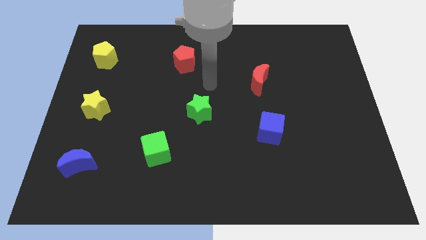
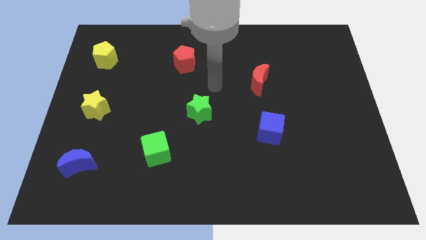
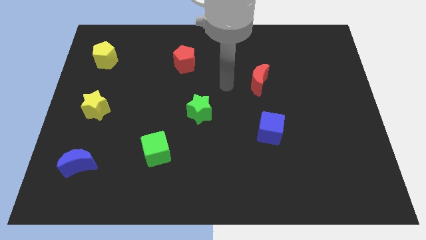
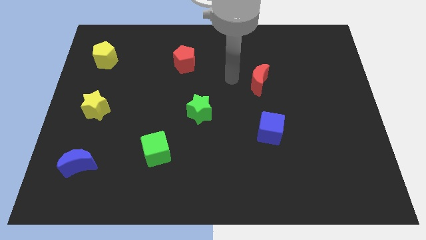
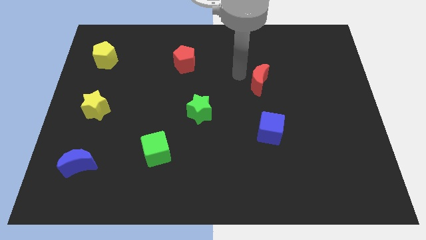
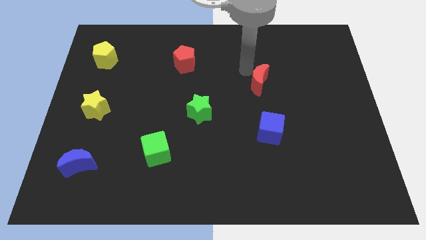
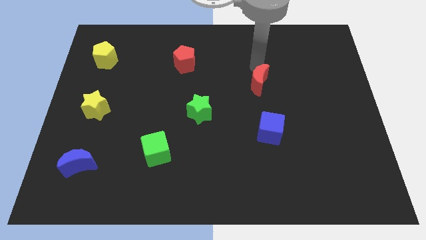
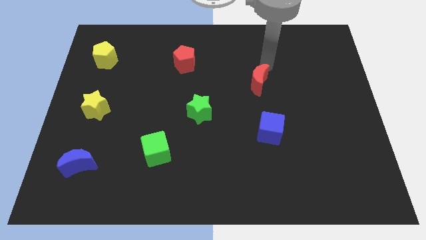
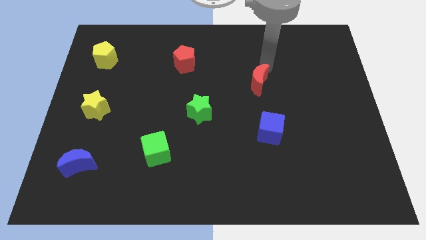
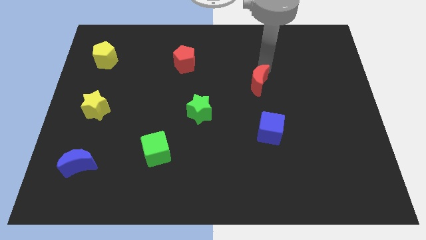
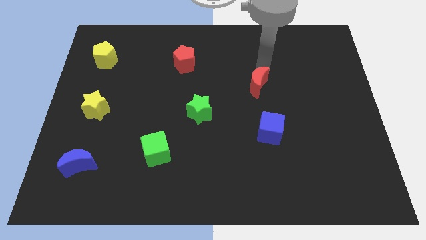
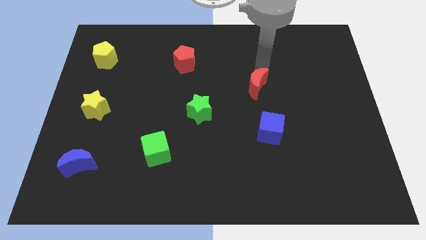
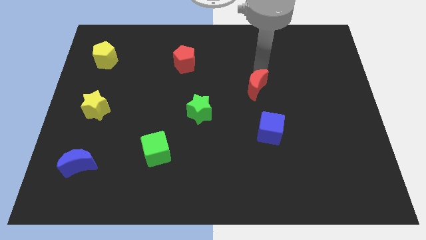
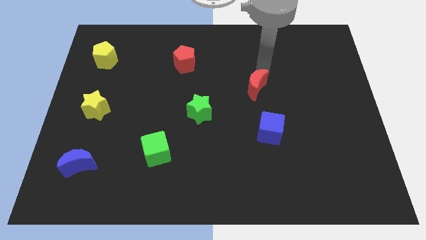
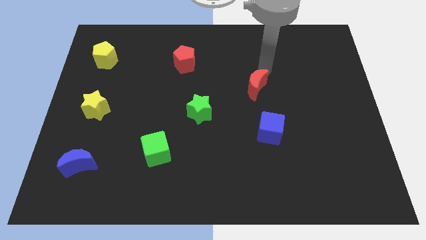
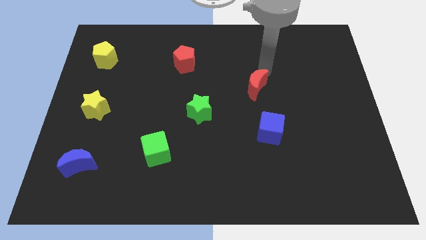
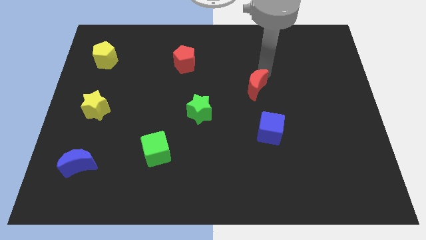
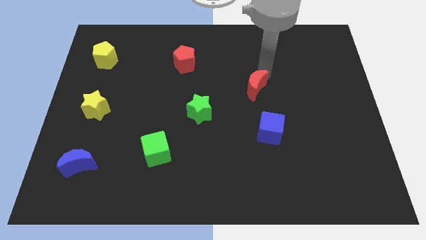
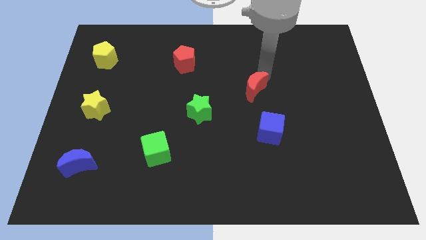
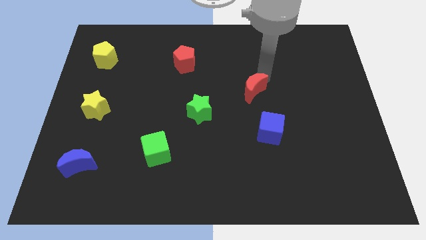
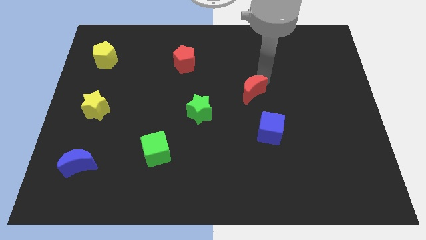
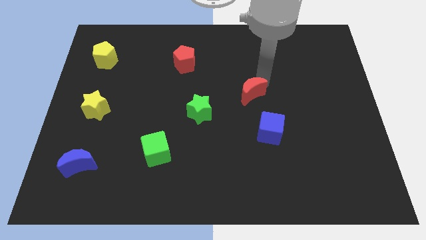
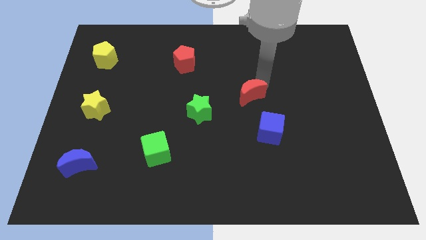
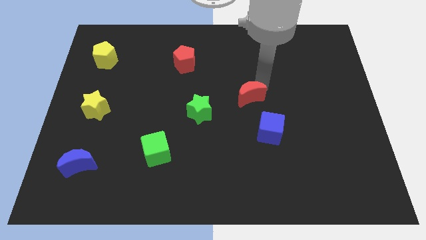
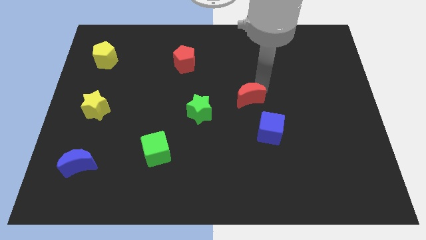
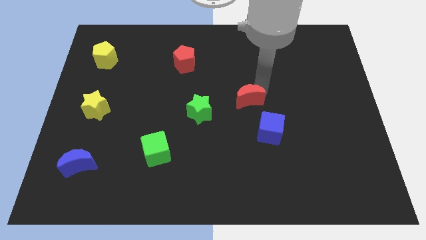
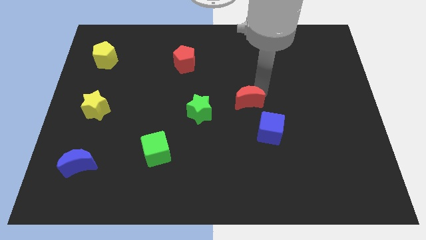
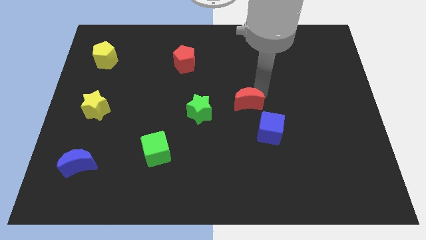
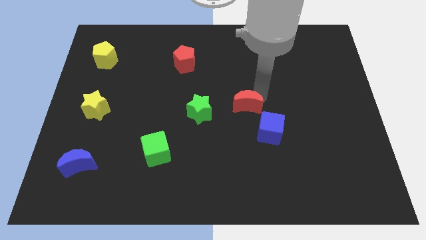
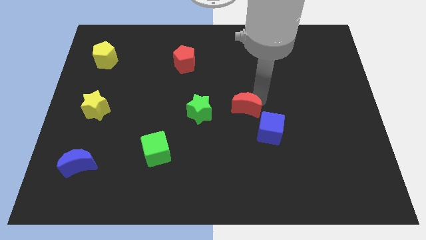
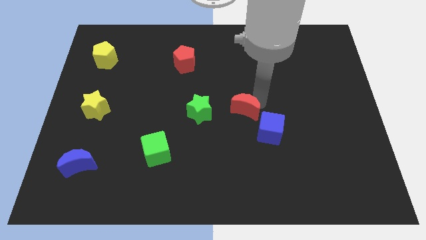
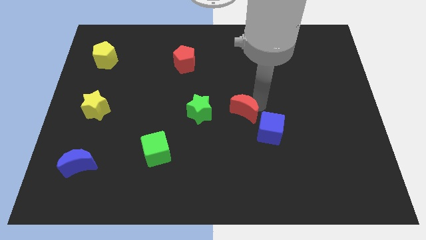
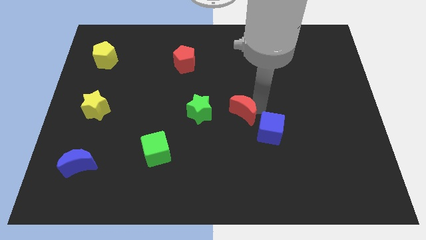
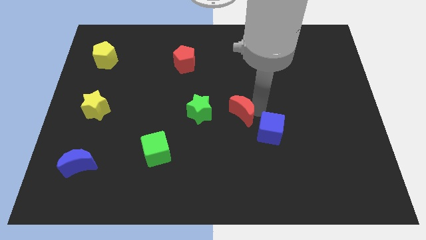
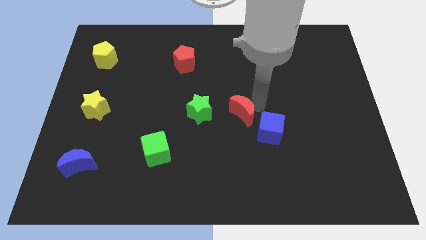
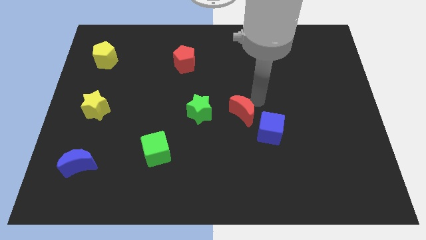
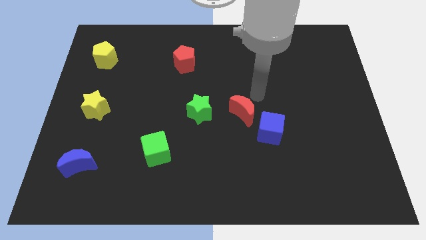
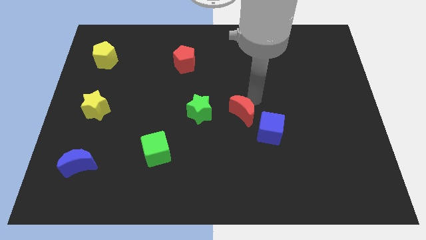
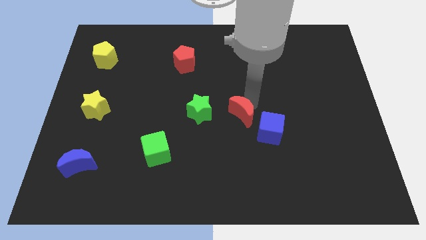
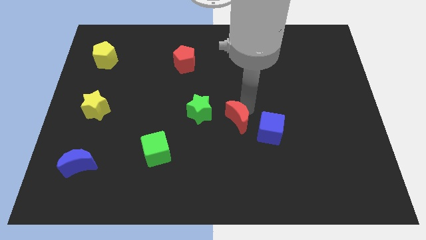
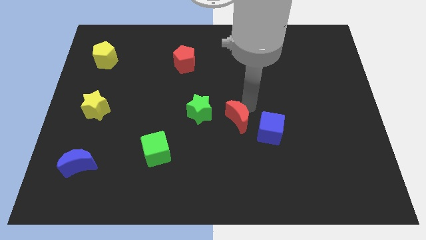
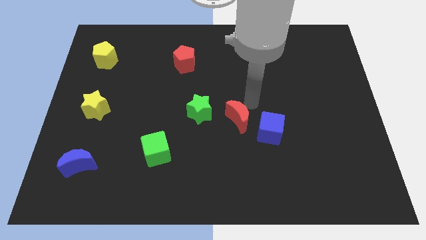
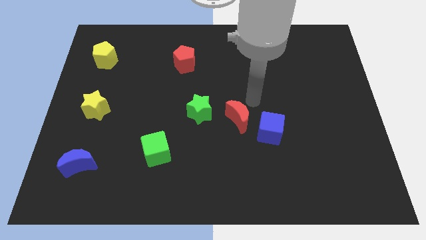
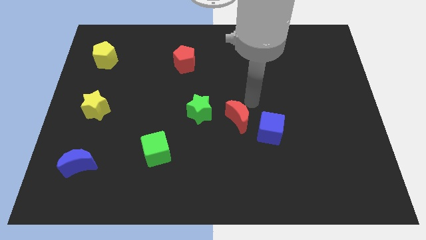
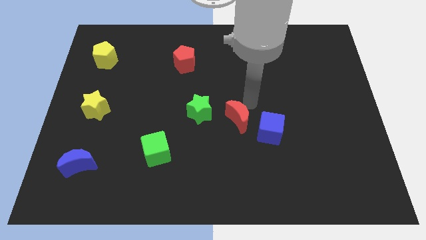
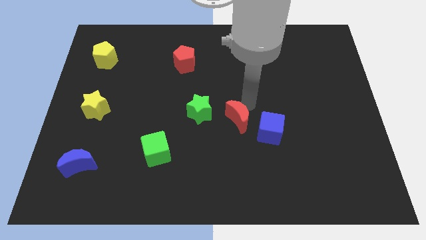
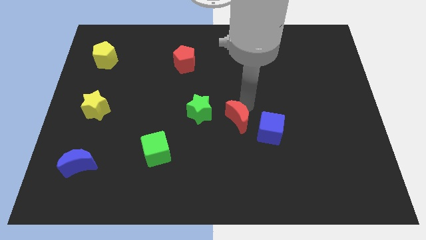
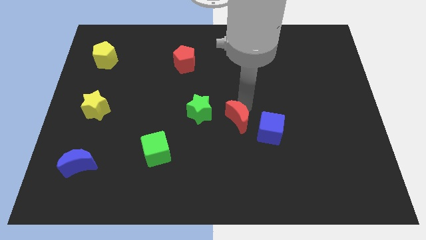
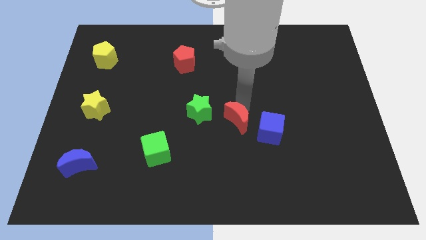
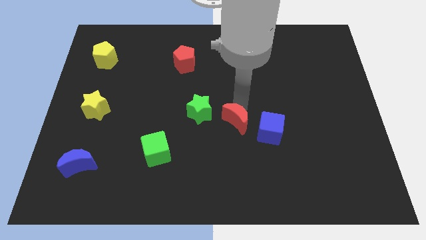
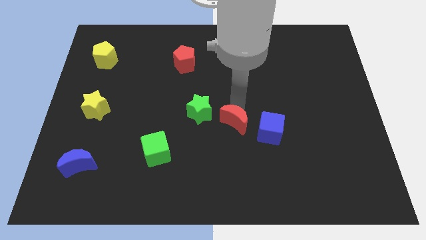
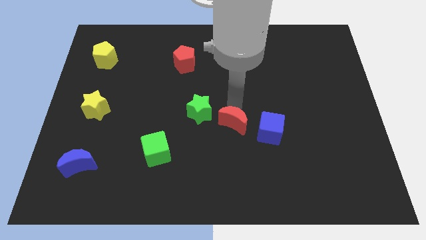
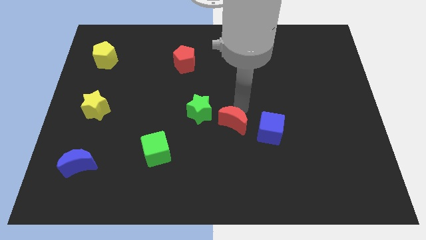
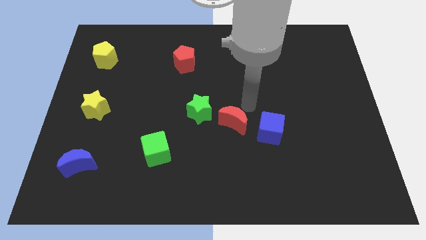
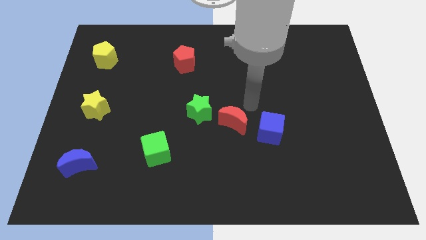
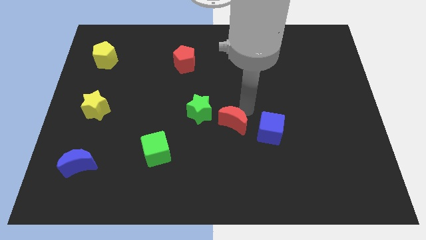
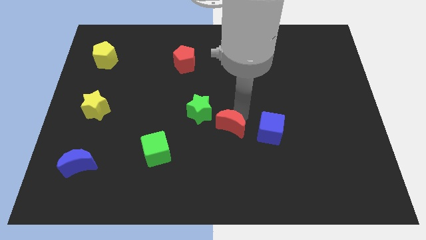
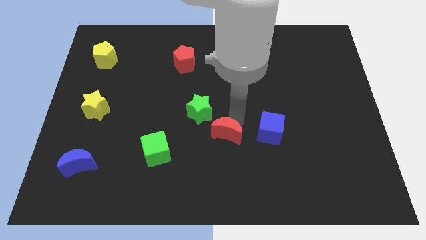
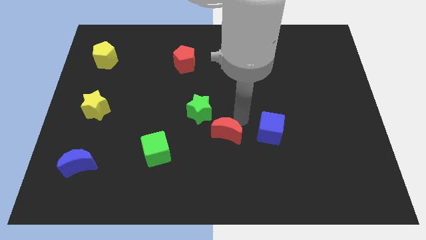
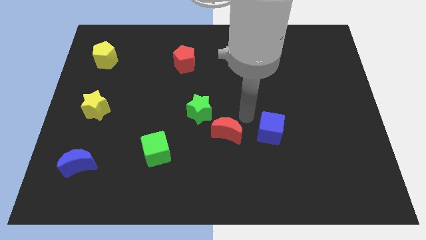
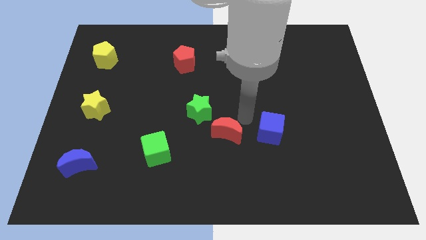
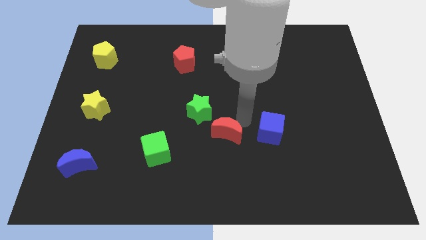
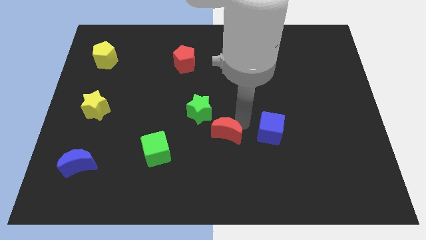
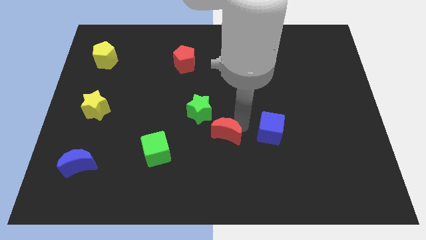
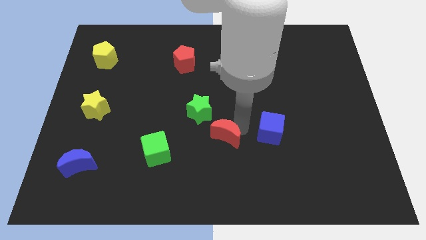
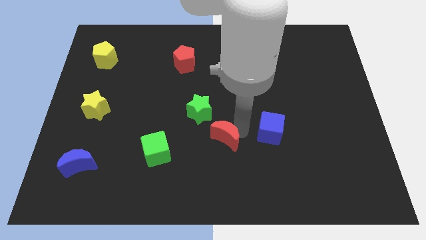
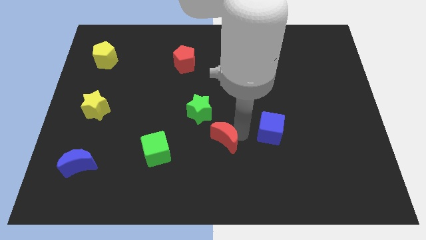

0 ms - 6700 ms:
push the red moon just right of the green cube

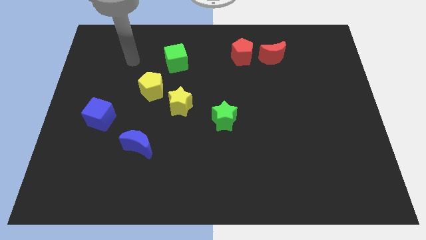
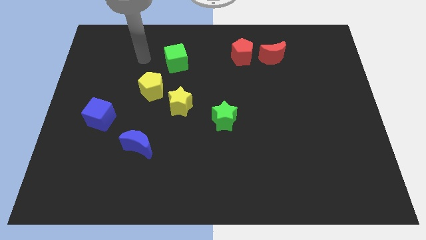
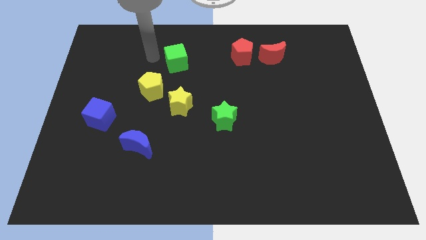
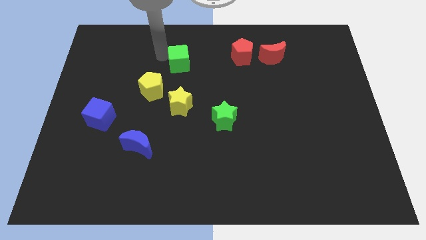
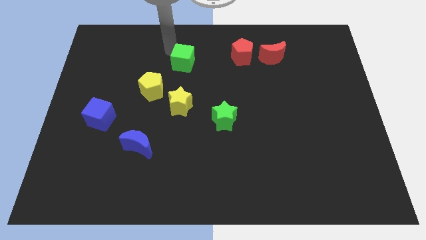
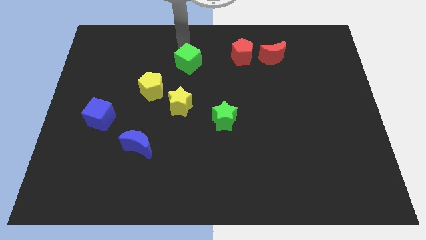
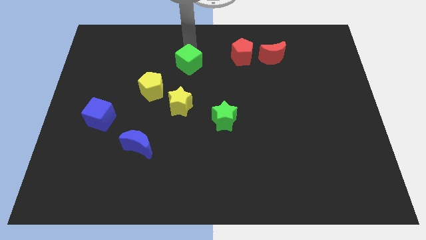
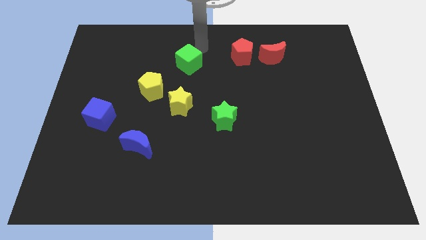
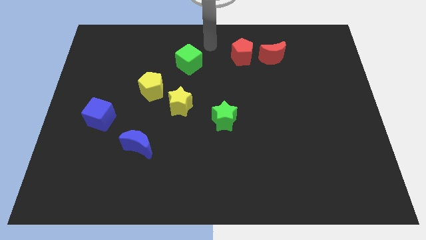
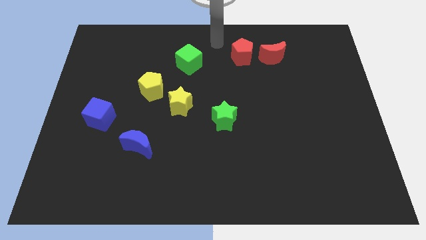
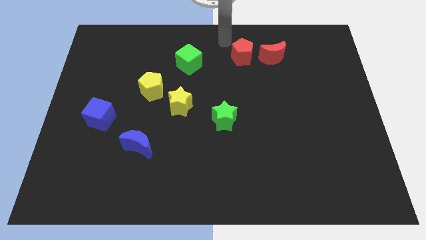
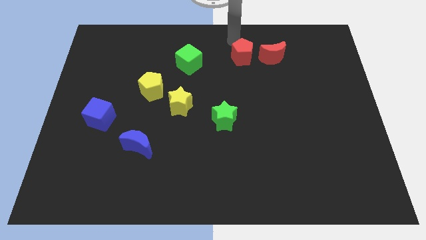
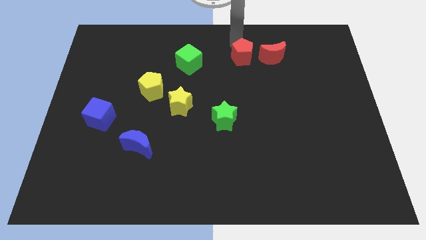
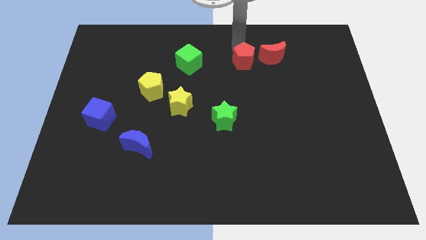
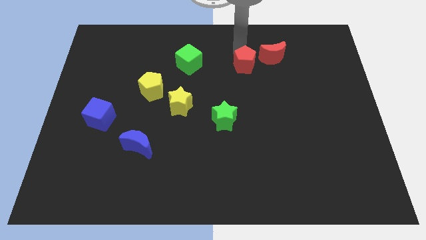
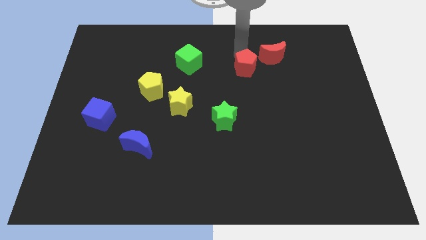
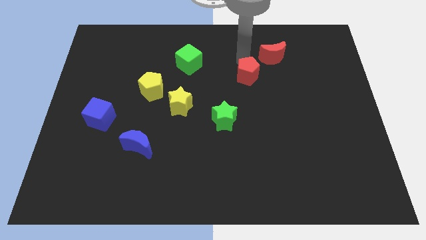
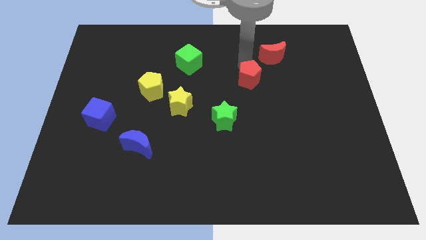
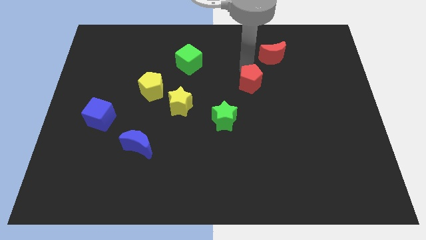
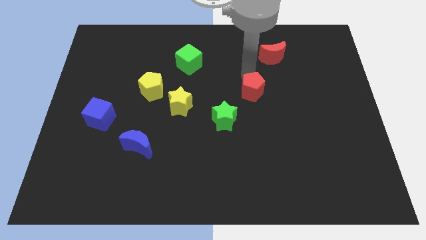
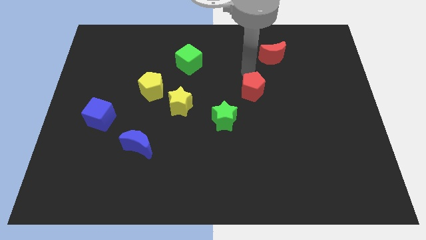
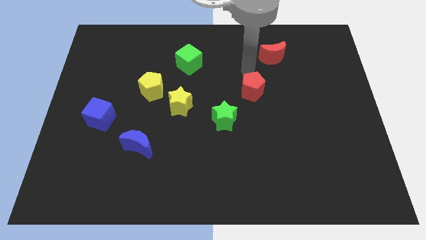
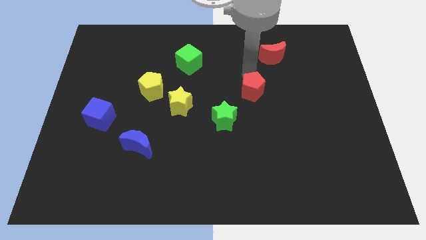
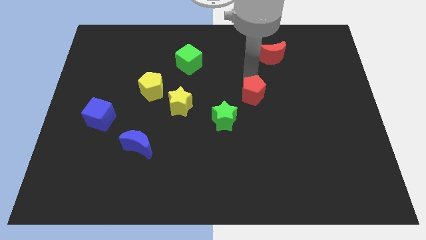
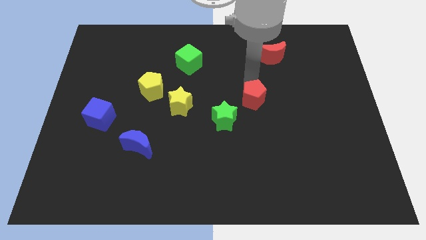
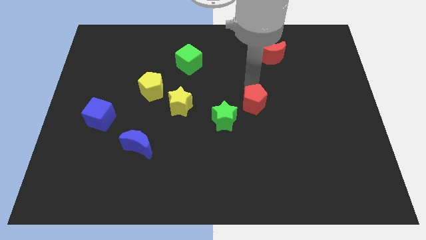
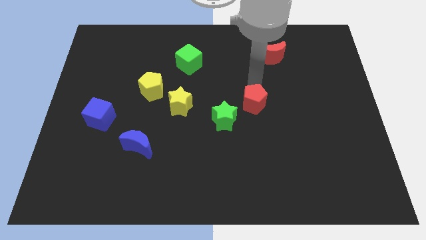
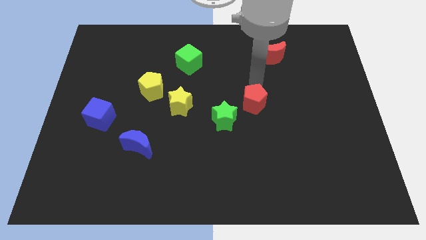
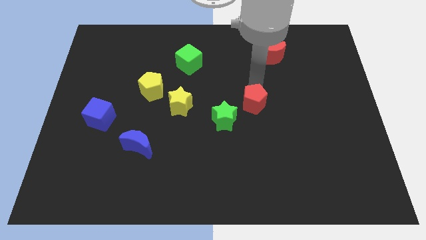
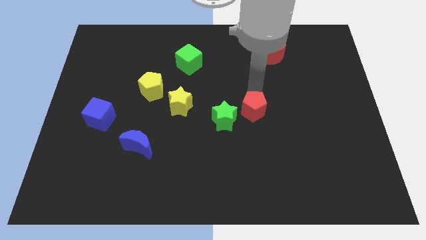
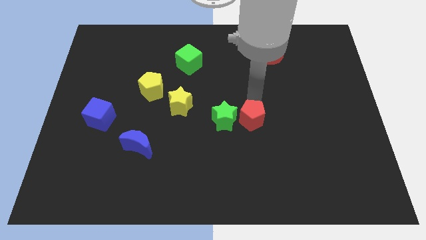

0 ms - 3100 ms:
put the red pentagon to the bottom right of the green star
